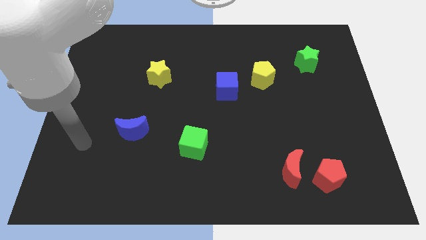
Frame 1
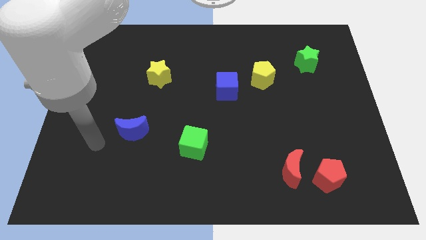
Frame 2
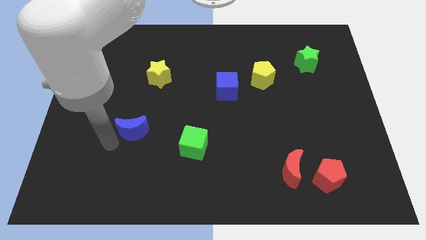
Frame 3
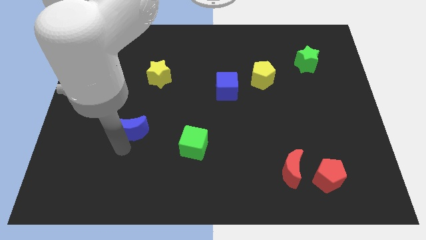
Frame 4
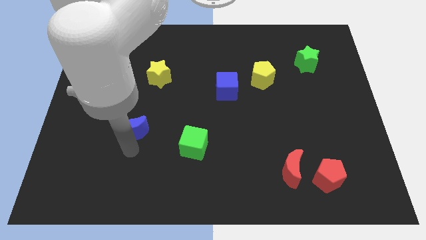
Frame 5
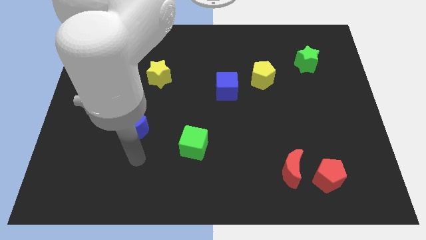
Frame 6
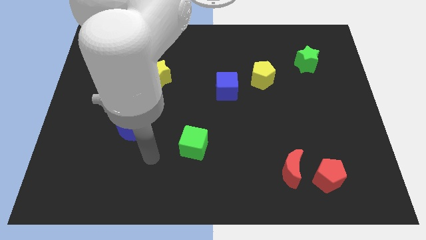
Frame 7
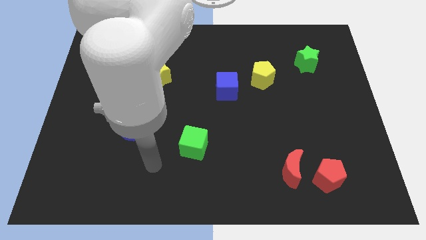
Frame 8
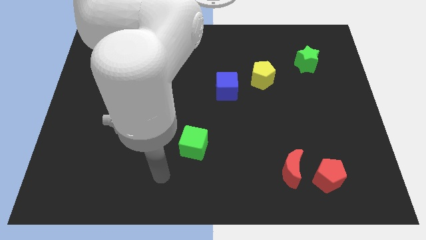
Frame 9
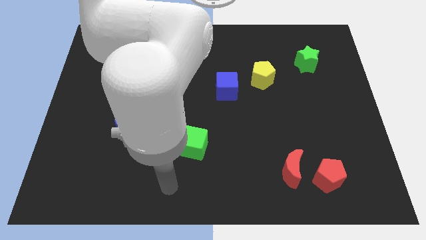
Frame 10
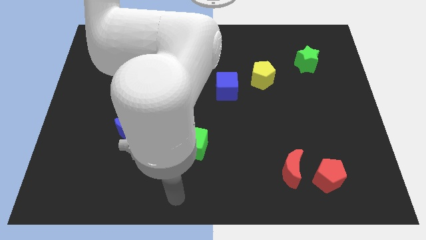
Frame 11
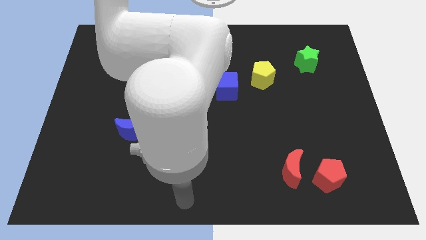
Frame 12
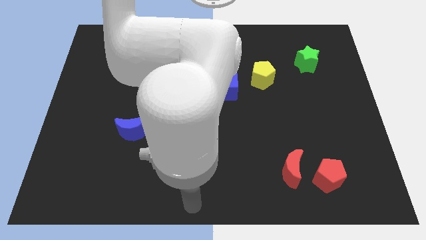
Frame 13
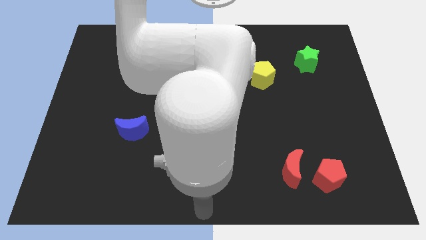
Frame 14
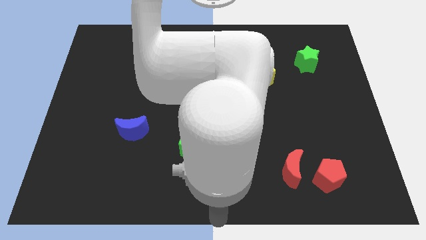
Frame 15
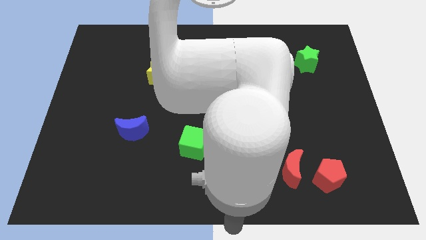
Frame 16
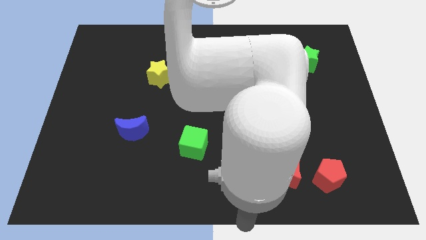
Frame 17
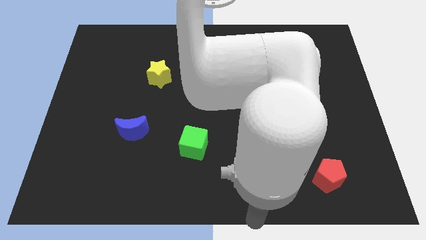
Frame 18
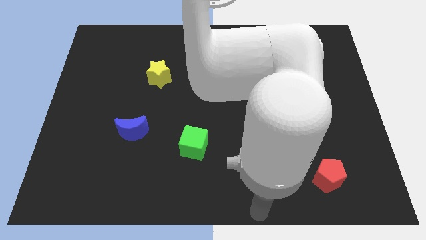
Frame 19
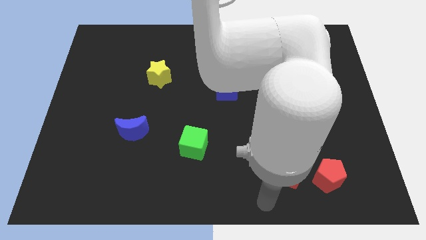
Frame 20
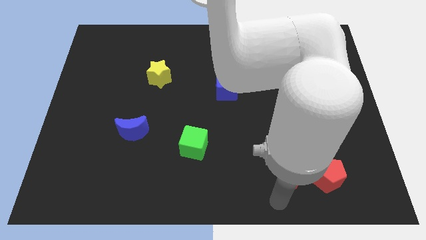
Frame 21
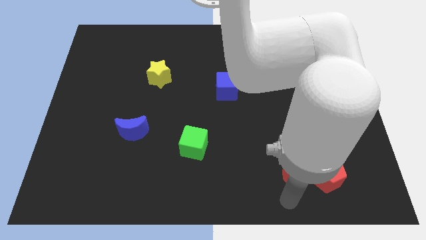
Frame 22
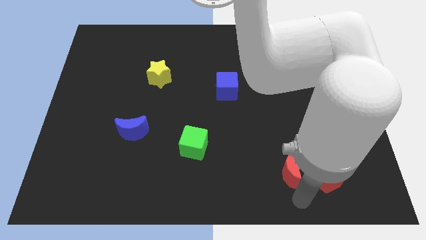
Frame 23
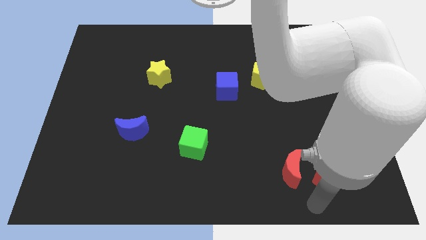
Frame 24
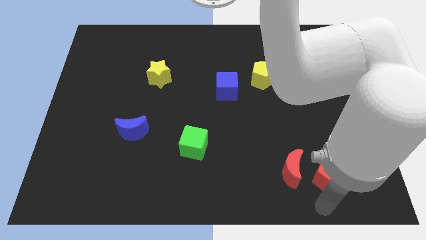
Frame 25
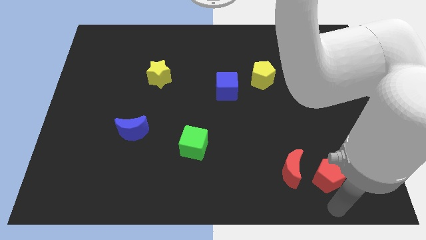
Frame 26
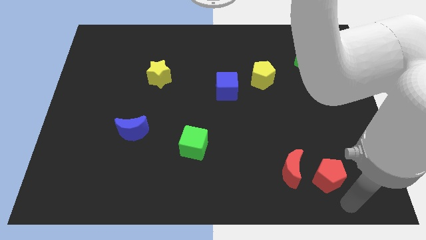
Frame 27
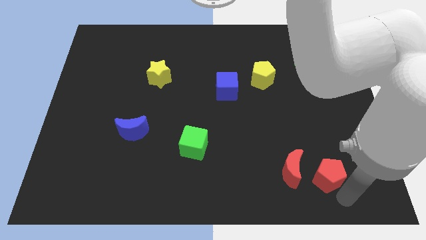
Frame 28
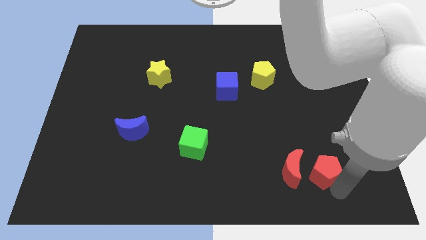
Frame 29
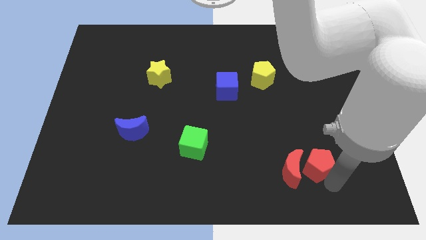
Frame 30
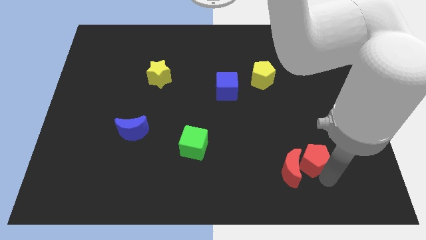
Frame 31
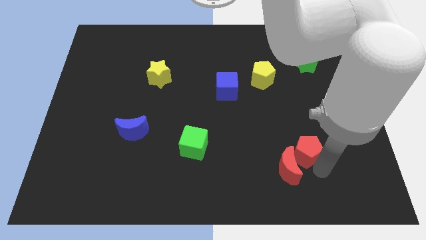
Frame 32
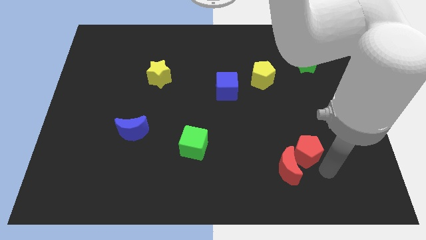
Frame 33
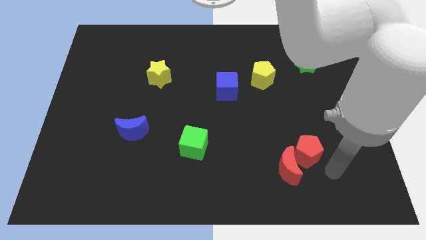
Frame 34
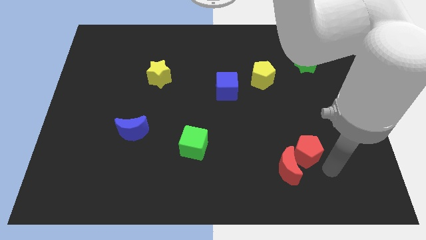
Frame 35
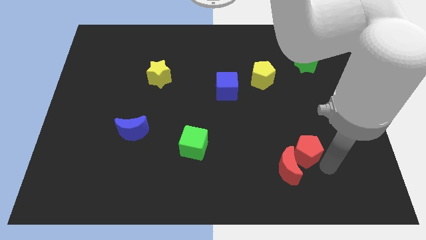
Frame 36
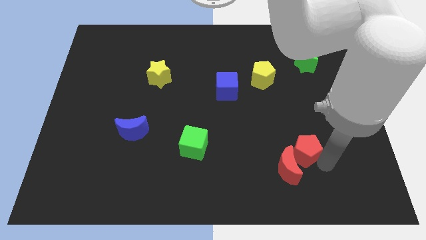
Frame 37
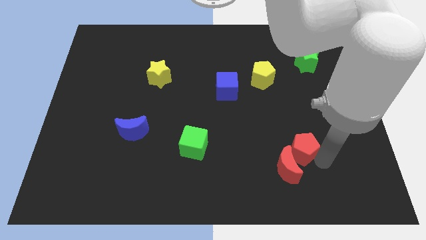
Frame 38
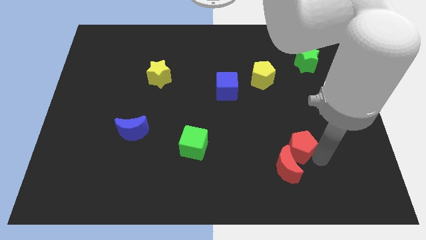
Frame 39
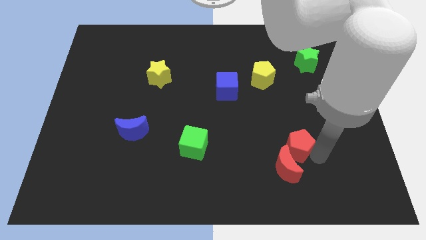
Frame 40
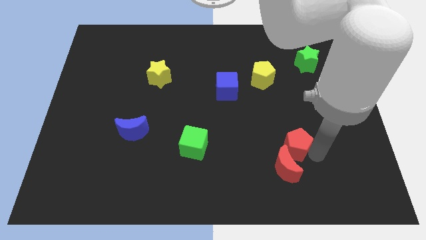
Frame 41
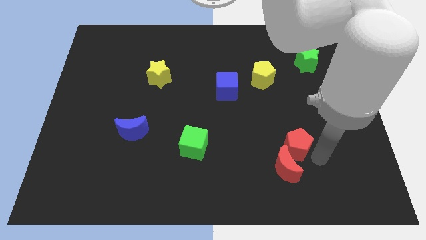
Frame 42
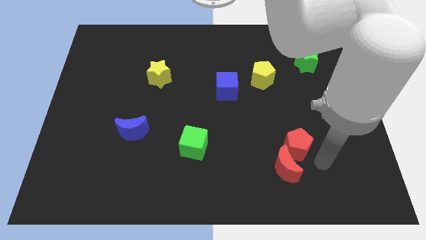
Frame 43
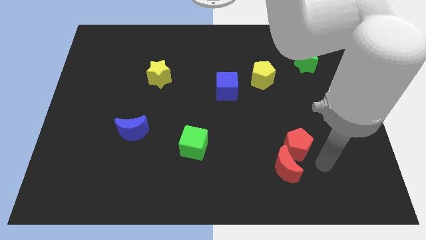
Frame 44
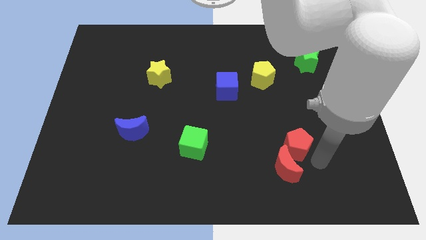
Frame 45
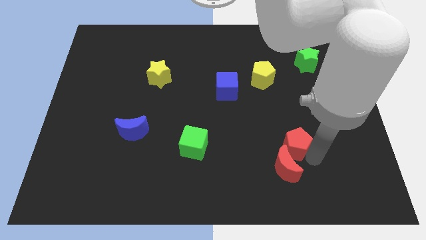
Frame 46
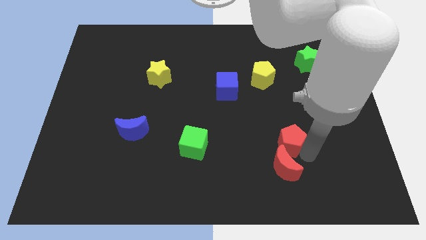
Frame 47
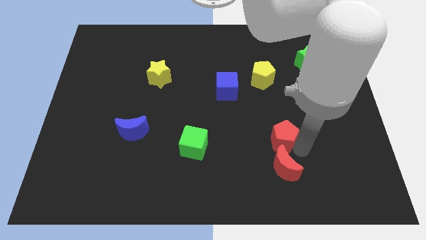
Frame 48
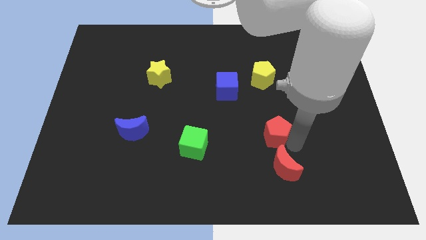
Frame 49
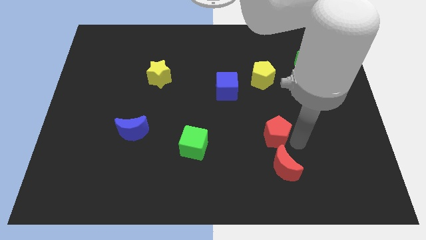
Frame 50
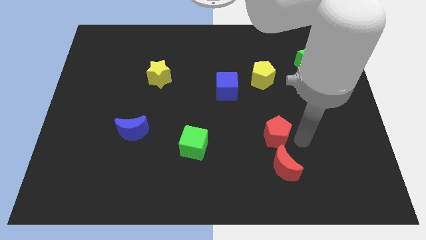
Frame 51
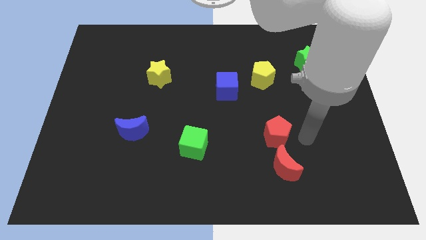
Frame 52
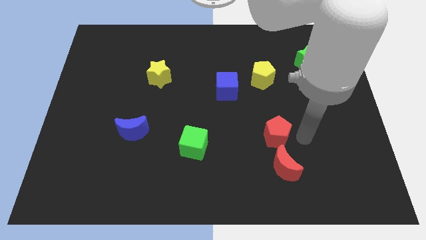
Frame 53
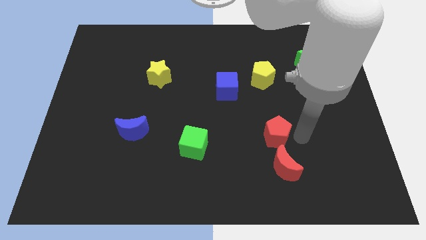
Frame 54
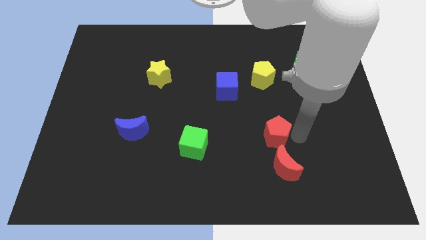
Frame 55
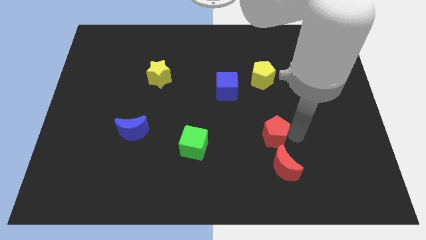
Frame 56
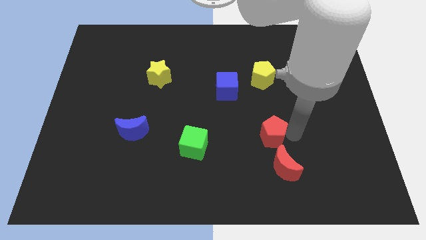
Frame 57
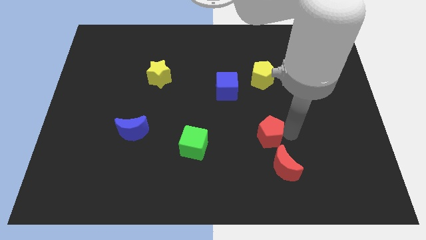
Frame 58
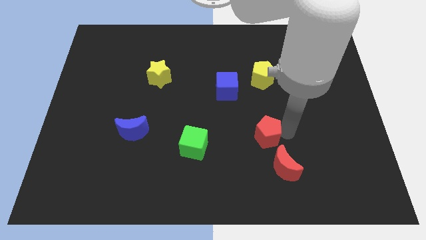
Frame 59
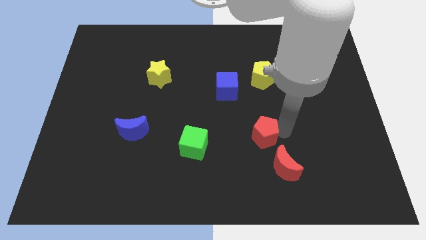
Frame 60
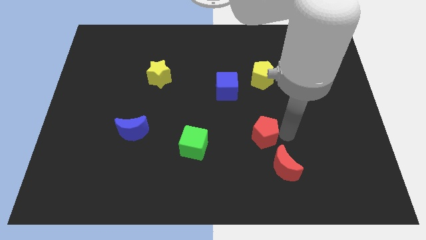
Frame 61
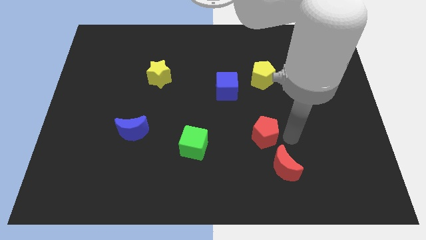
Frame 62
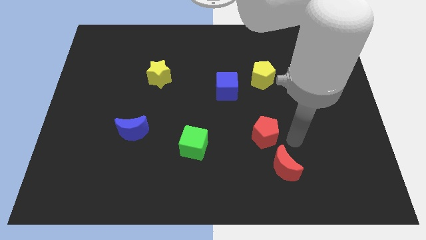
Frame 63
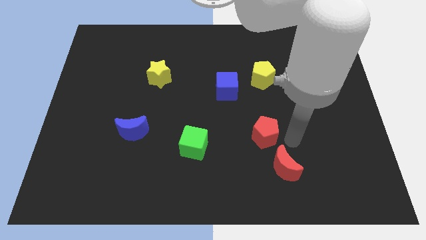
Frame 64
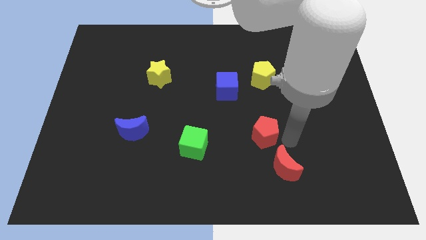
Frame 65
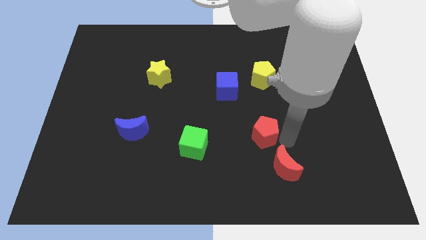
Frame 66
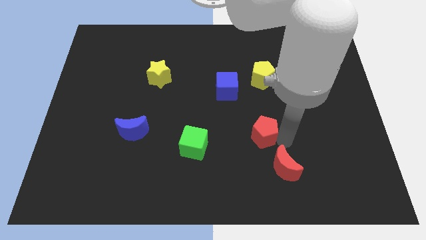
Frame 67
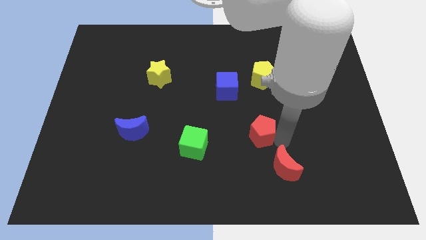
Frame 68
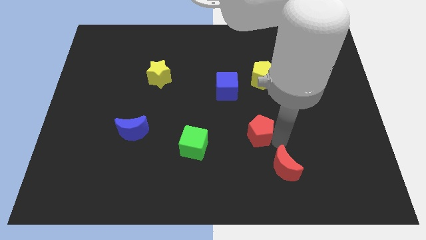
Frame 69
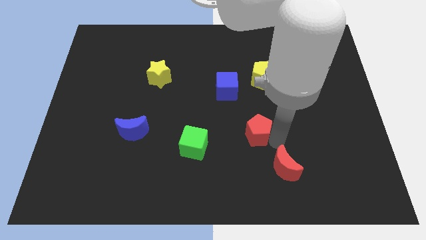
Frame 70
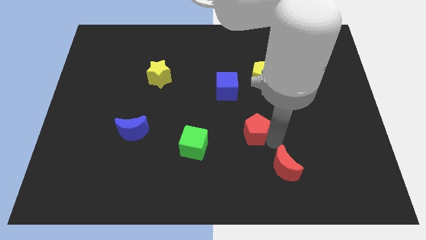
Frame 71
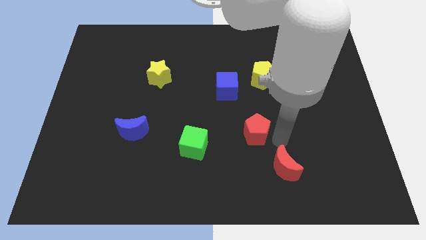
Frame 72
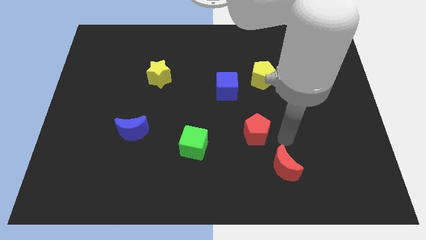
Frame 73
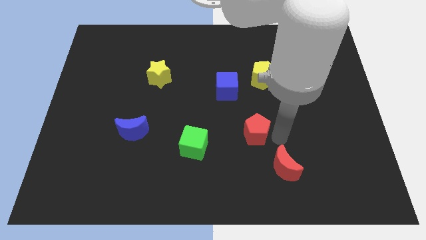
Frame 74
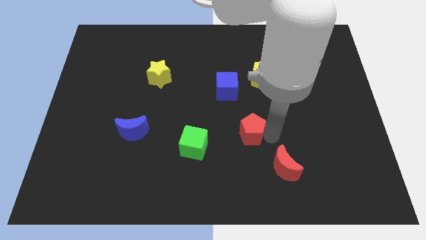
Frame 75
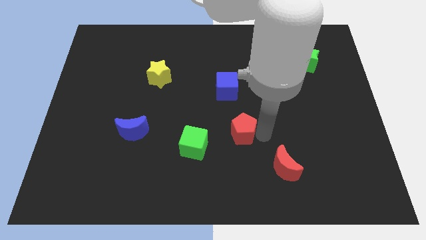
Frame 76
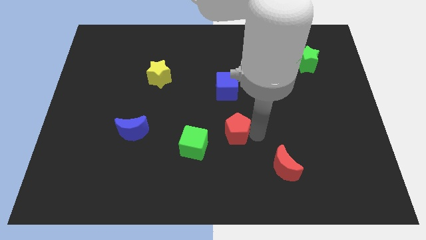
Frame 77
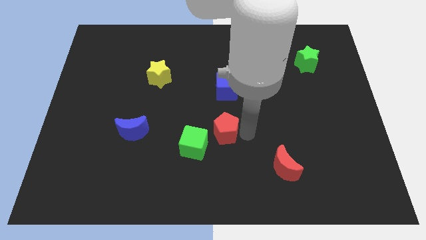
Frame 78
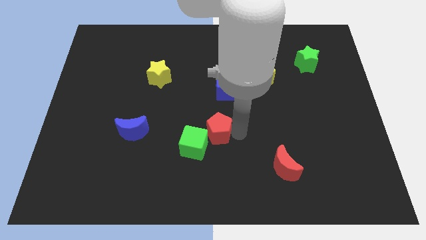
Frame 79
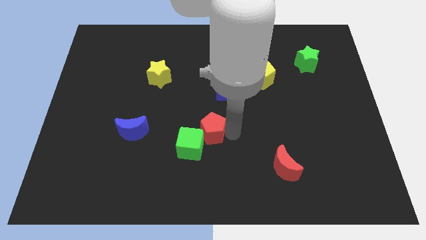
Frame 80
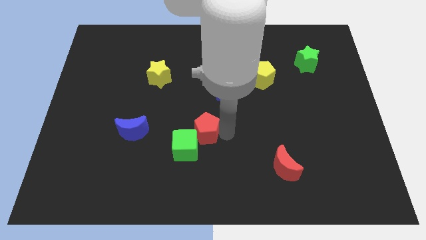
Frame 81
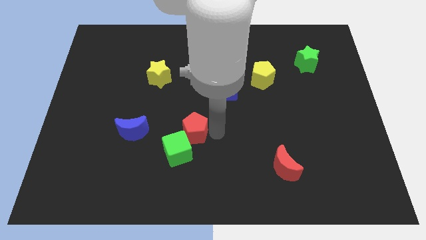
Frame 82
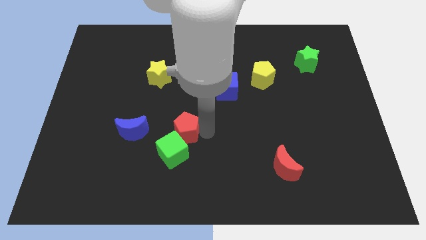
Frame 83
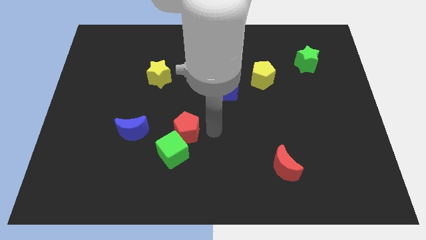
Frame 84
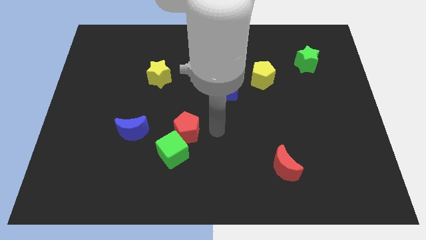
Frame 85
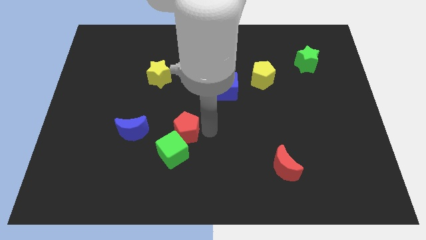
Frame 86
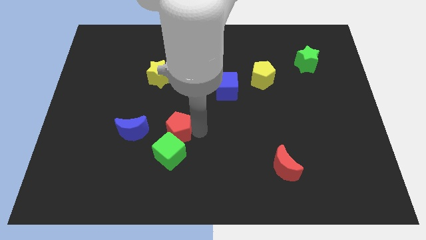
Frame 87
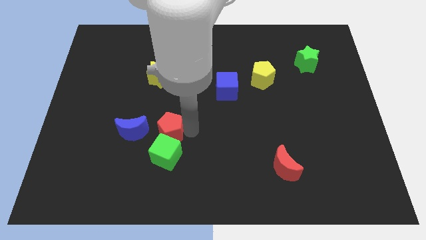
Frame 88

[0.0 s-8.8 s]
move the red pentagon to the top left of the green cube
